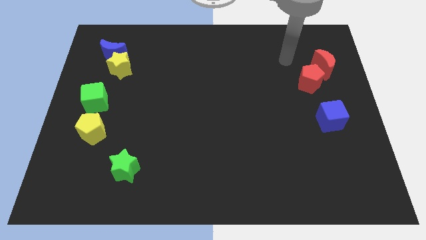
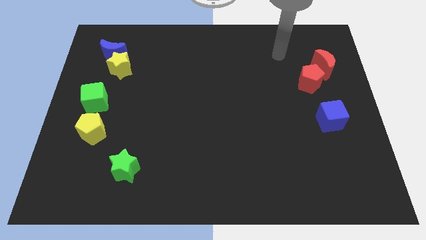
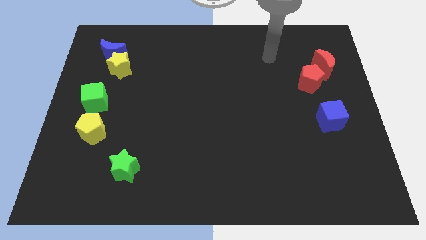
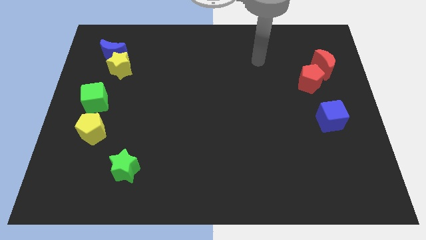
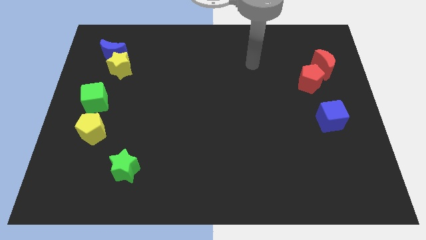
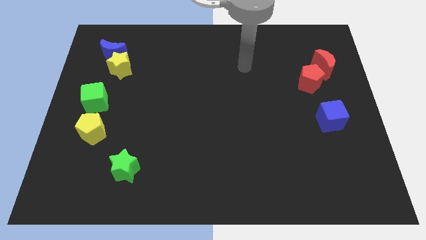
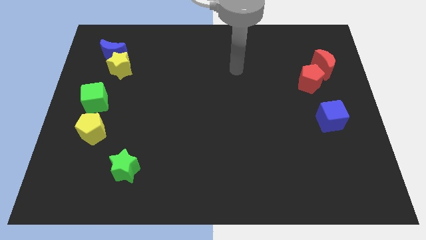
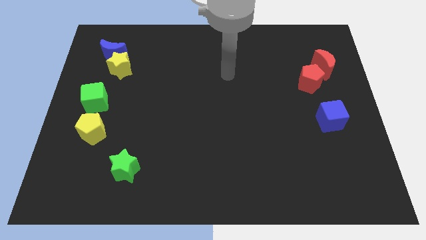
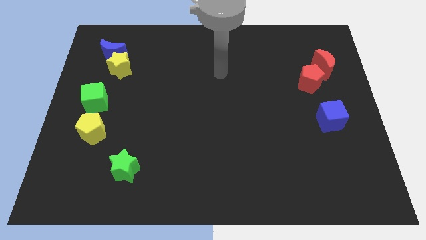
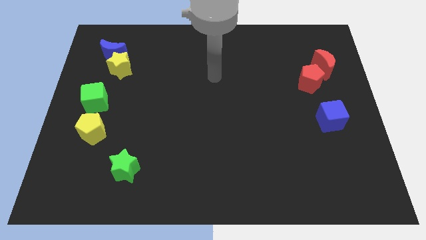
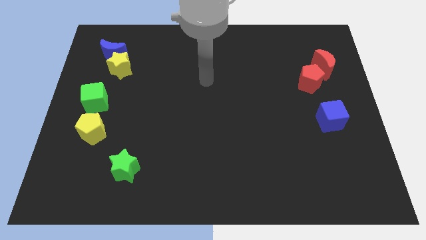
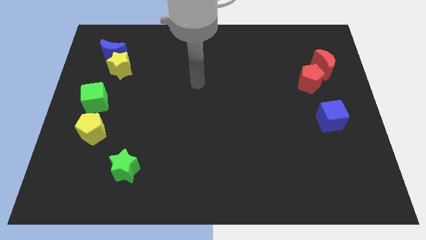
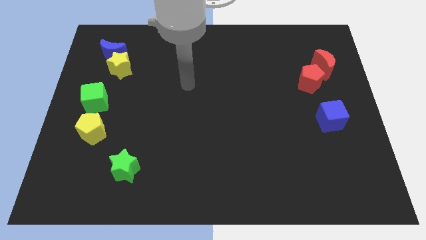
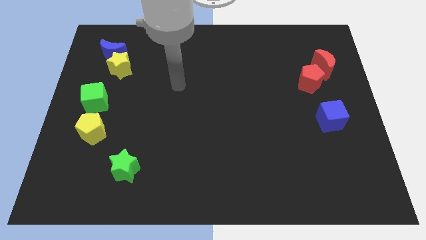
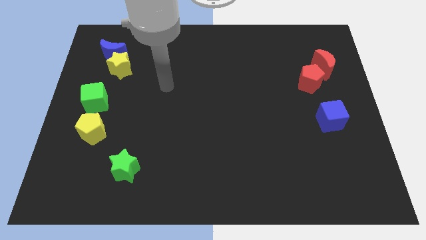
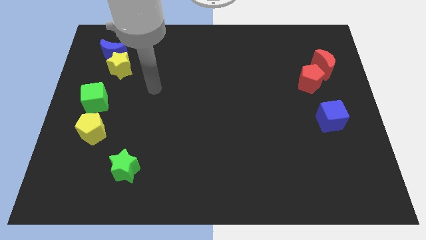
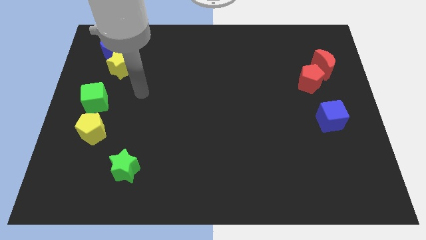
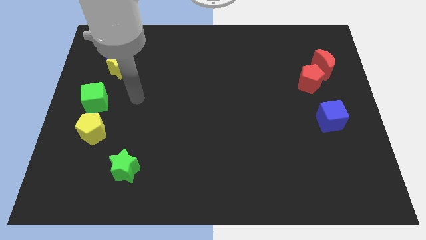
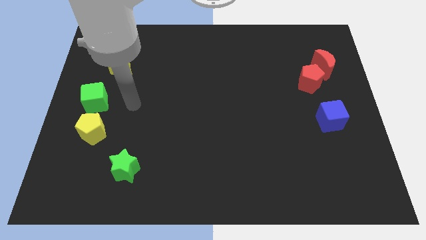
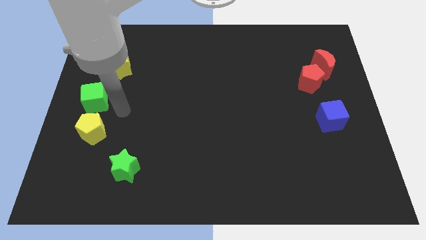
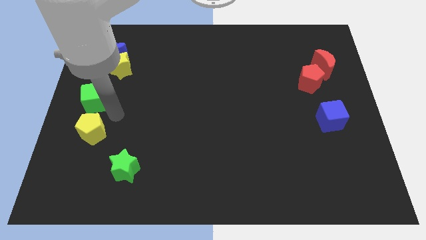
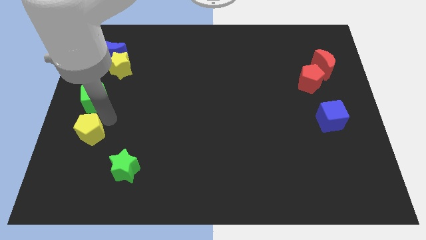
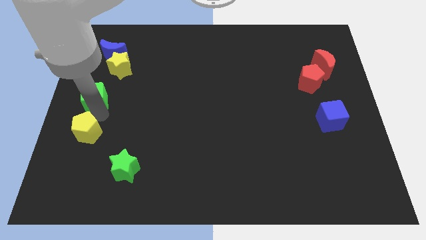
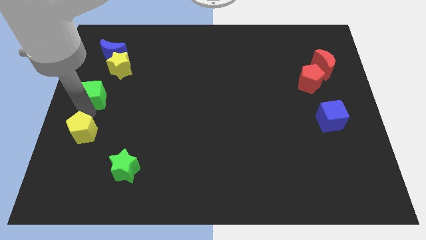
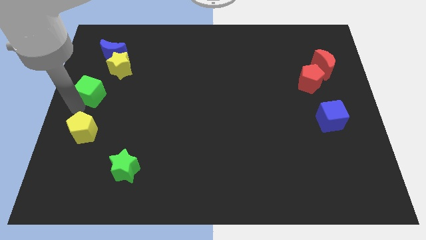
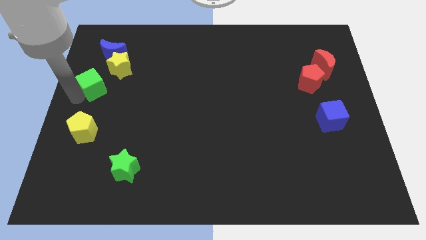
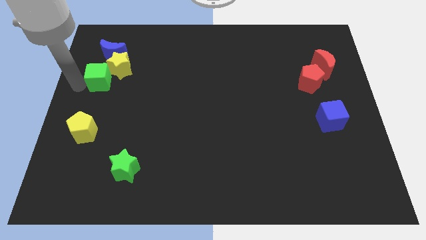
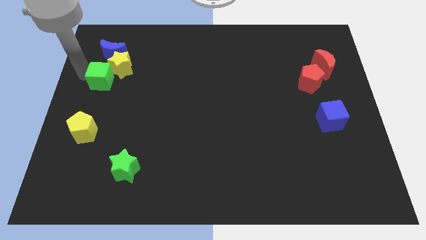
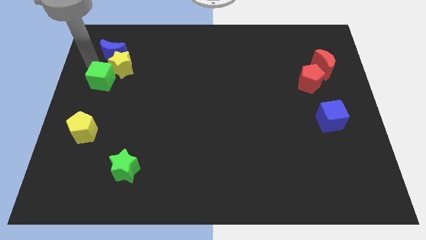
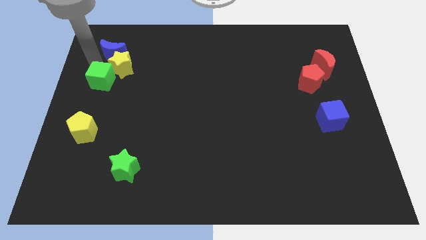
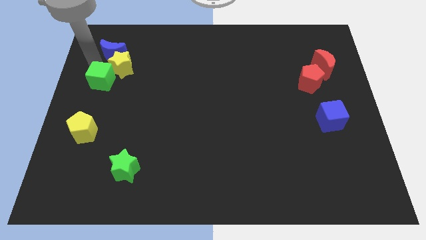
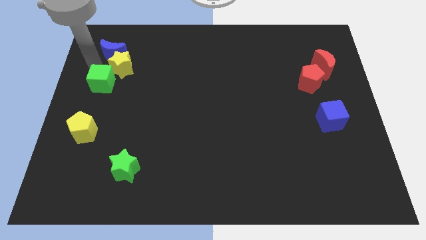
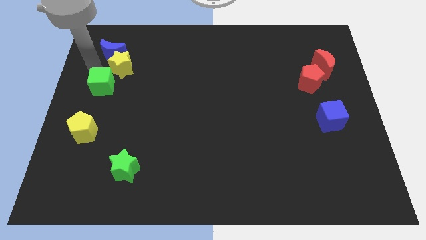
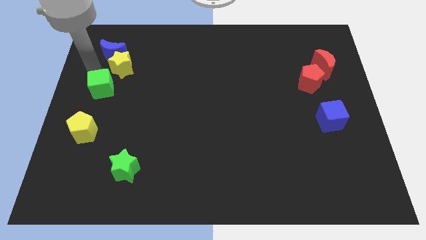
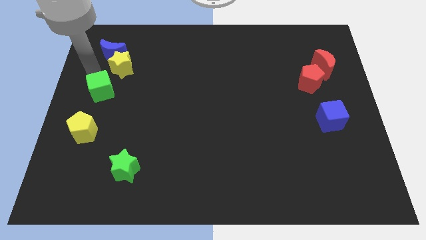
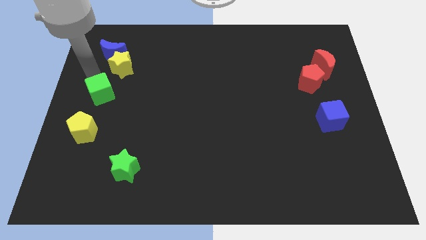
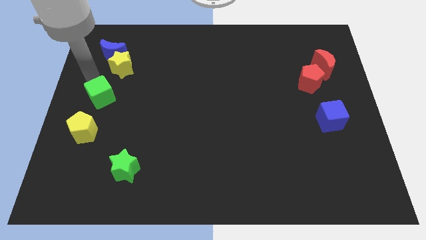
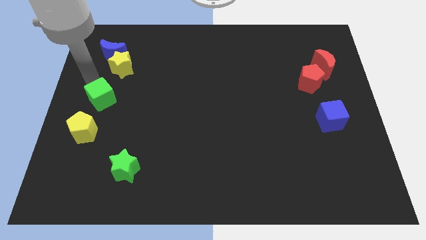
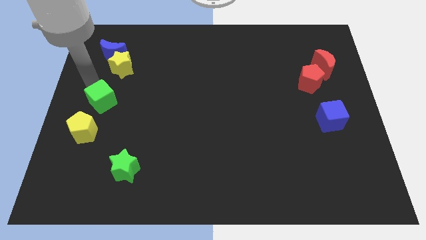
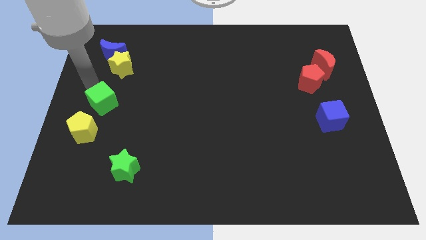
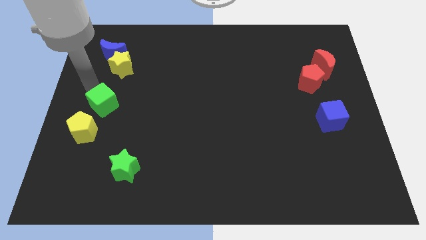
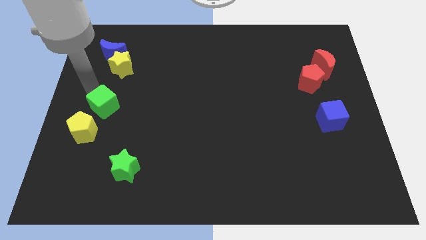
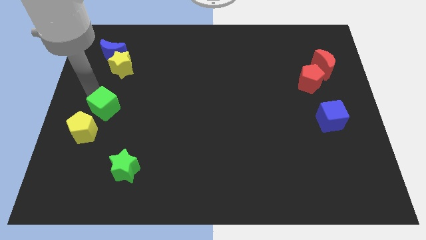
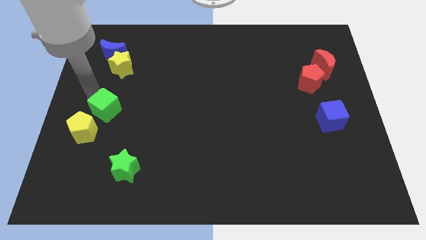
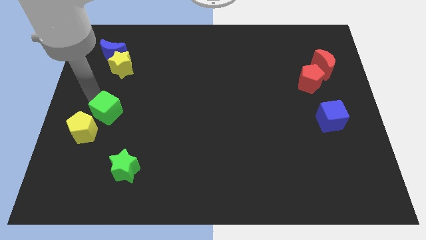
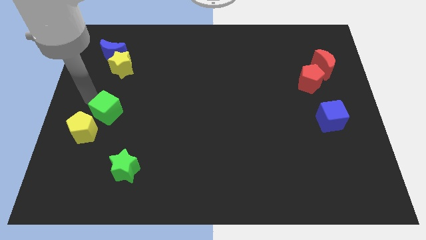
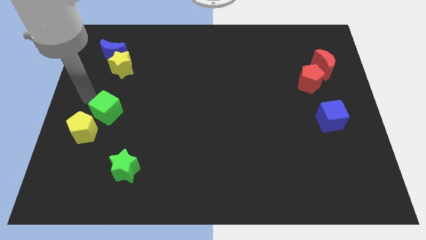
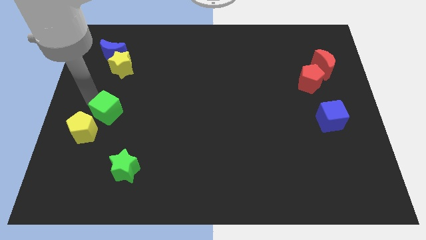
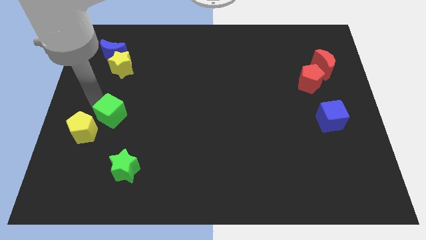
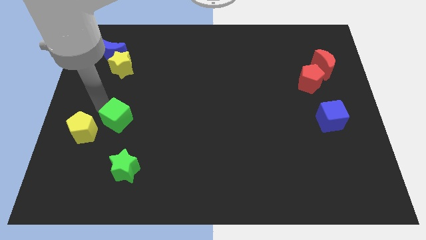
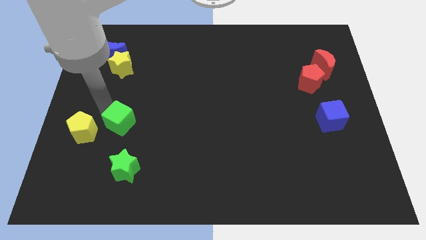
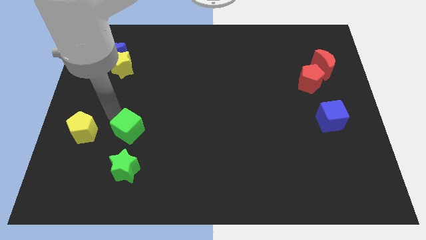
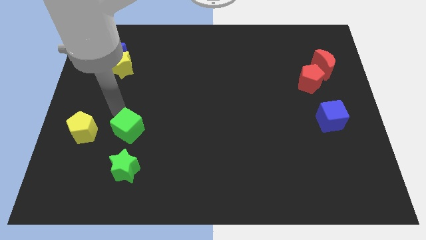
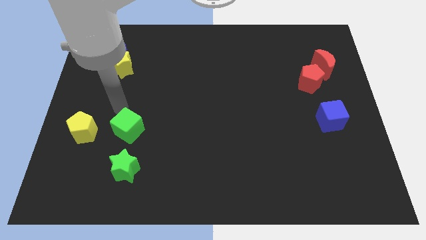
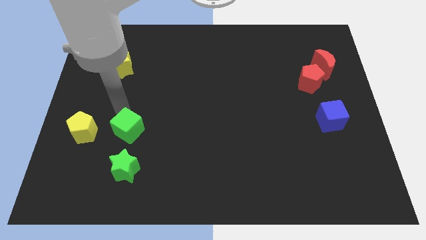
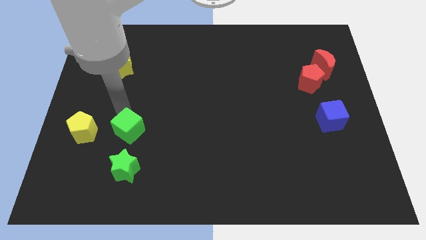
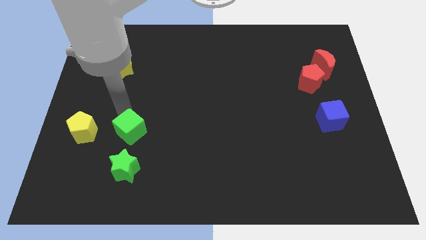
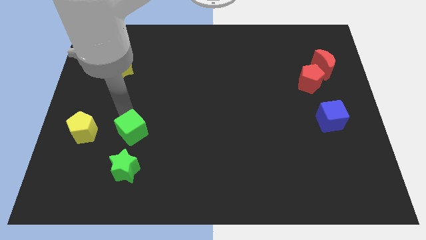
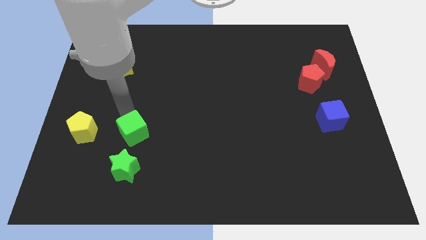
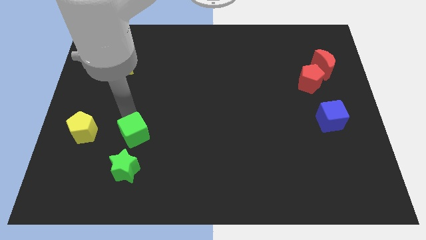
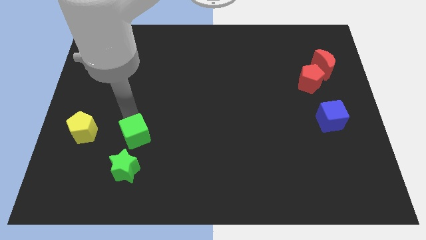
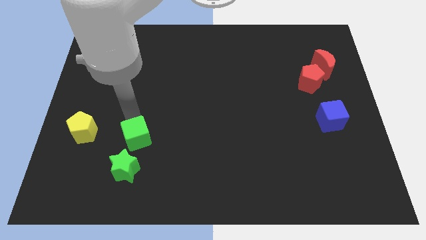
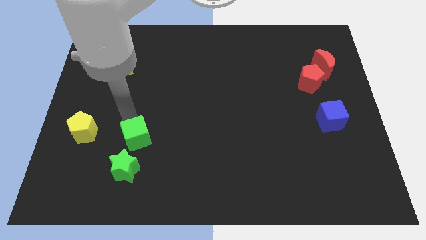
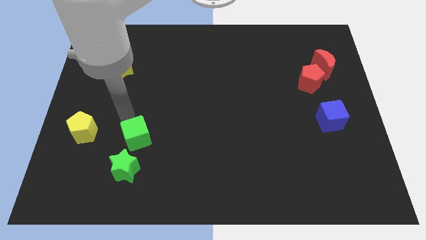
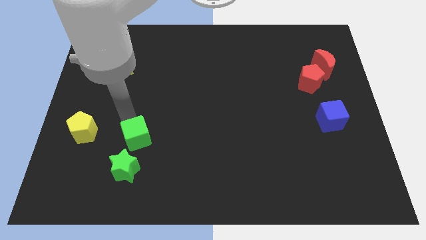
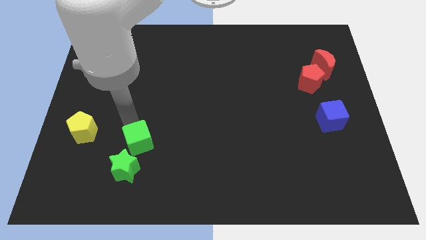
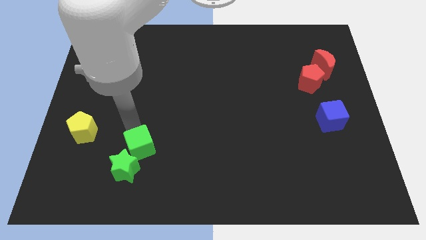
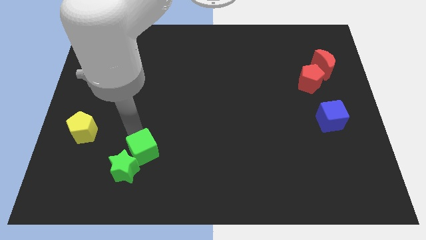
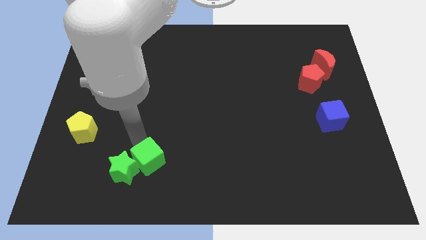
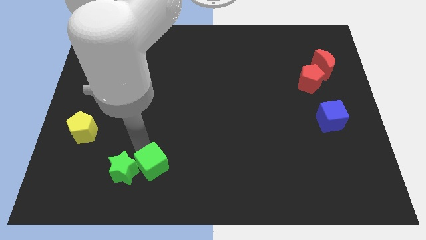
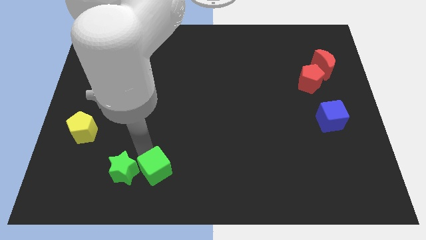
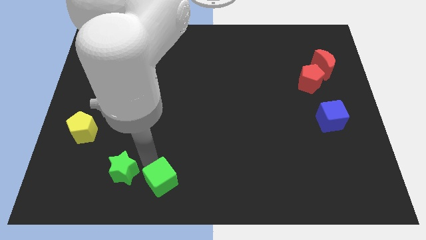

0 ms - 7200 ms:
move the green cube to the bottom side
